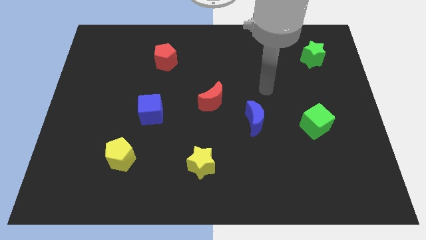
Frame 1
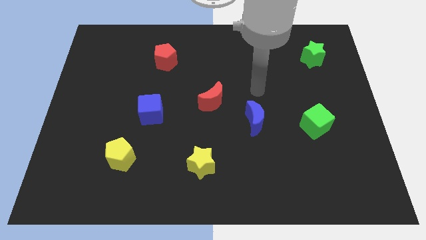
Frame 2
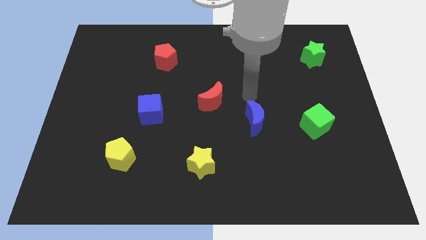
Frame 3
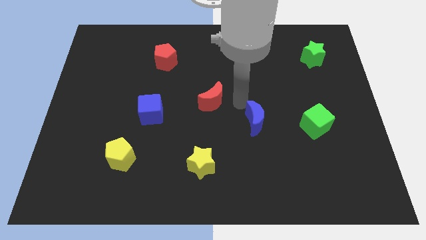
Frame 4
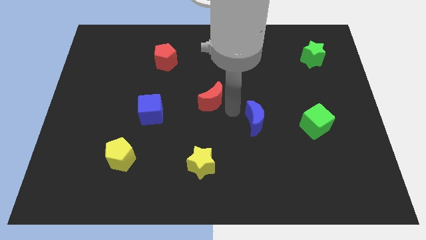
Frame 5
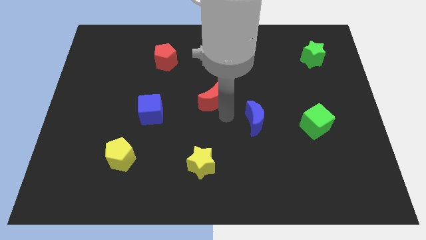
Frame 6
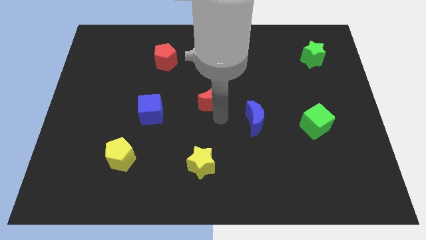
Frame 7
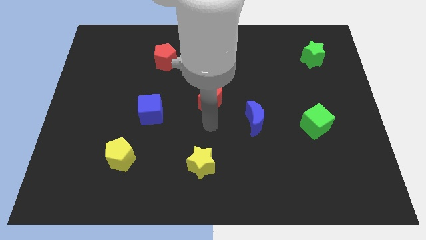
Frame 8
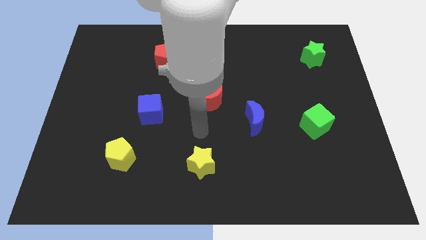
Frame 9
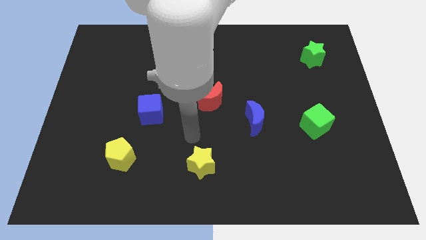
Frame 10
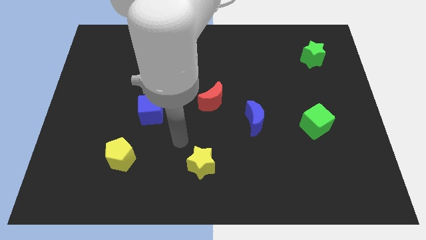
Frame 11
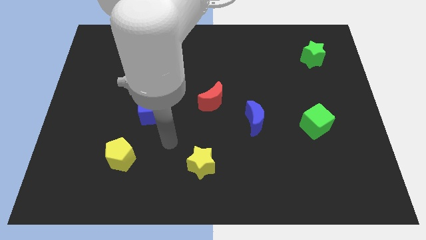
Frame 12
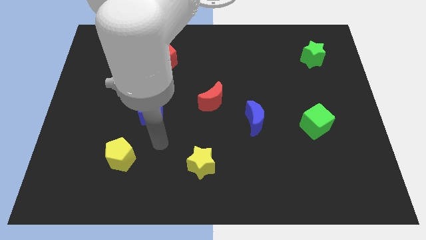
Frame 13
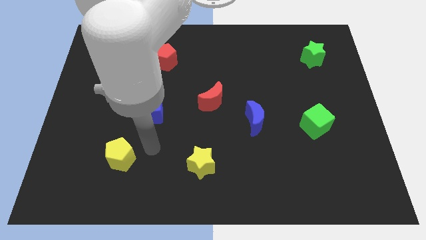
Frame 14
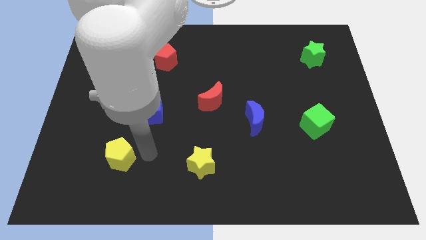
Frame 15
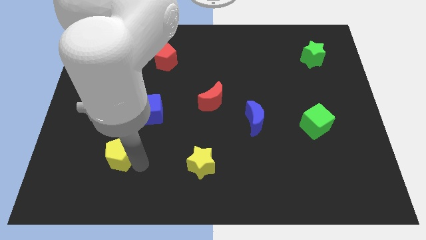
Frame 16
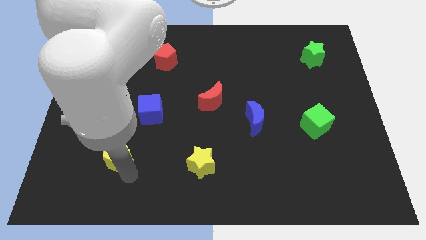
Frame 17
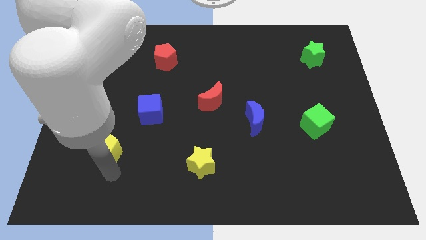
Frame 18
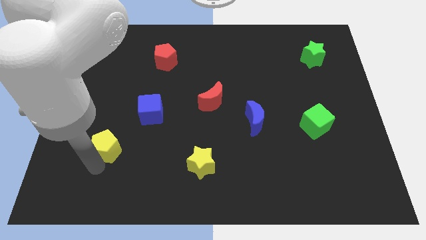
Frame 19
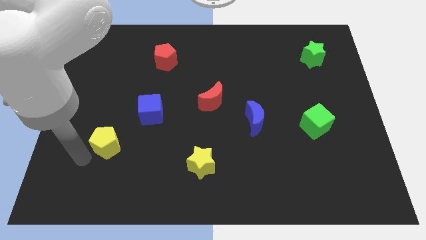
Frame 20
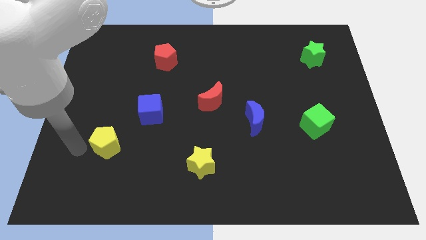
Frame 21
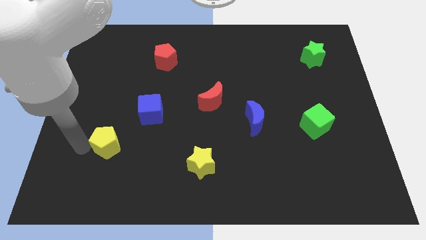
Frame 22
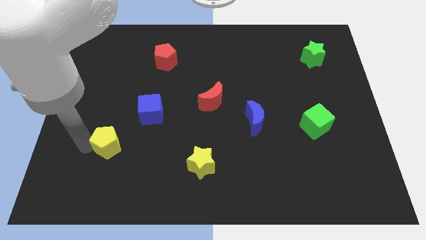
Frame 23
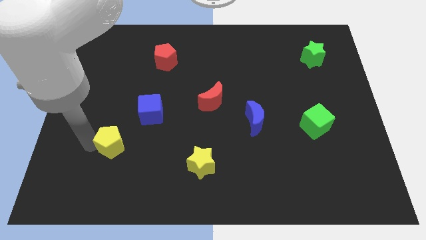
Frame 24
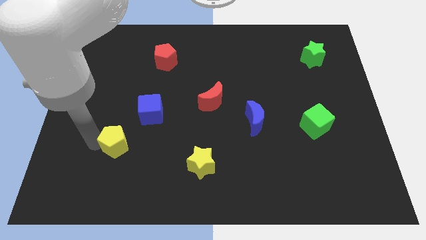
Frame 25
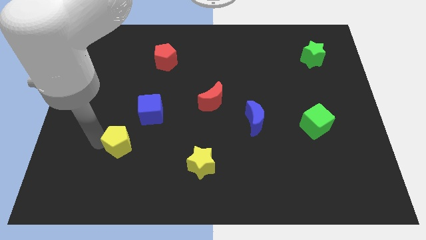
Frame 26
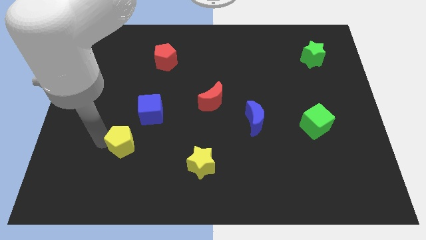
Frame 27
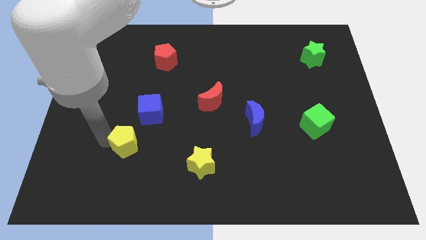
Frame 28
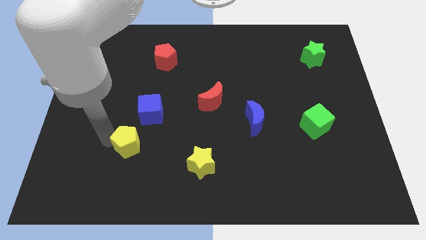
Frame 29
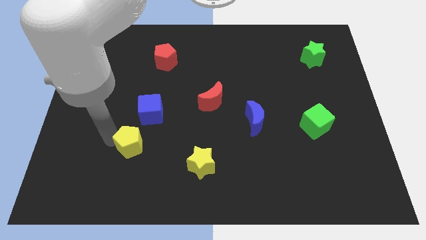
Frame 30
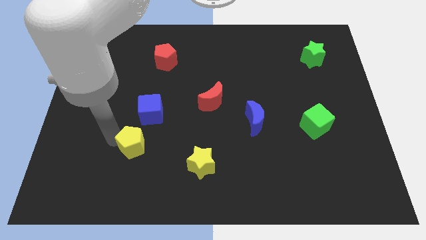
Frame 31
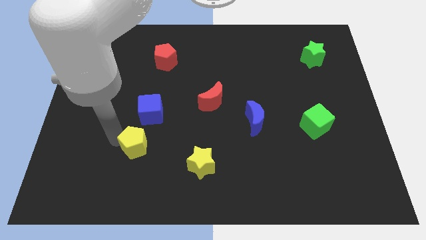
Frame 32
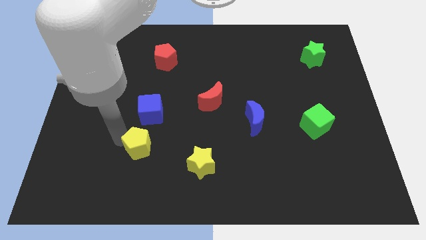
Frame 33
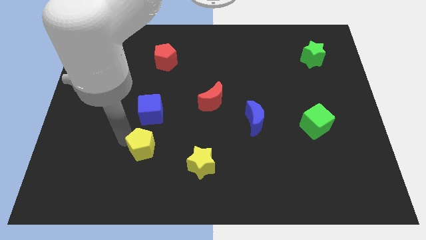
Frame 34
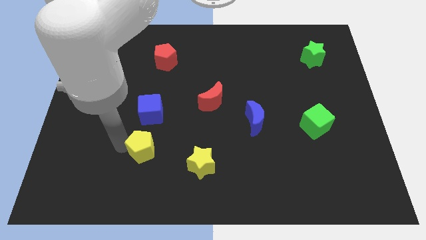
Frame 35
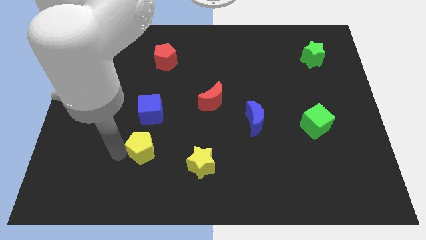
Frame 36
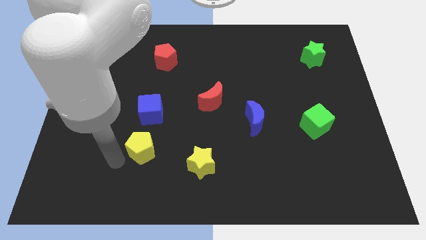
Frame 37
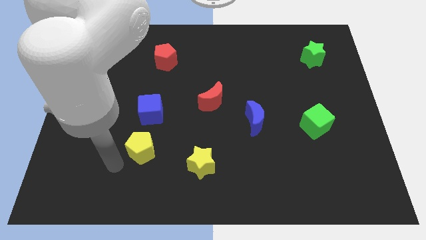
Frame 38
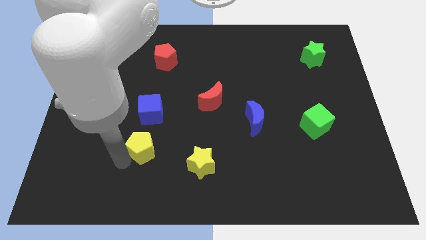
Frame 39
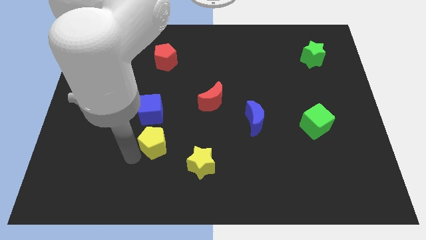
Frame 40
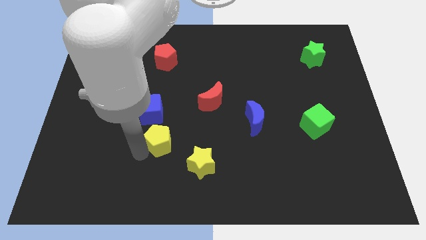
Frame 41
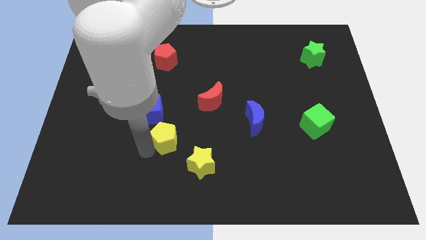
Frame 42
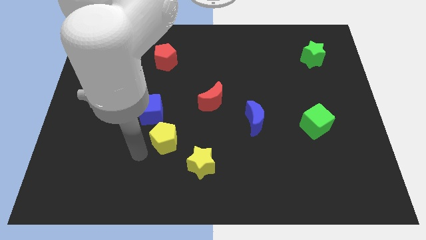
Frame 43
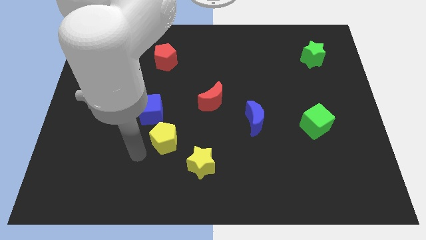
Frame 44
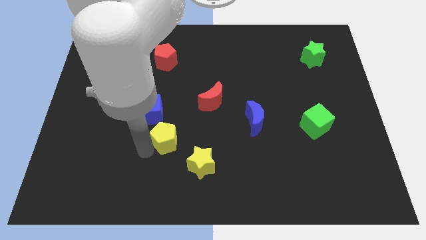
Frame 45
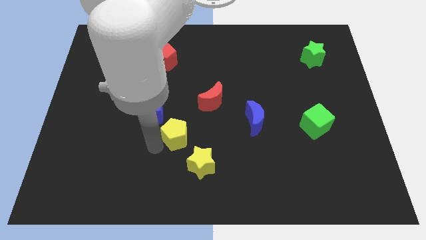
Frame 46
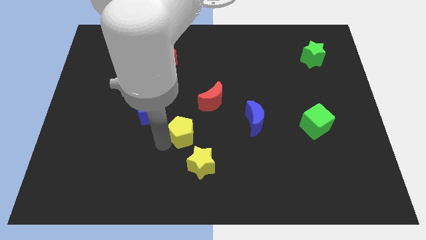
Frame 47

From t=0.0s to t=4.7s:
move the yellow pentagon above the yellow star

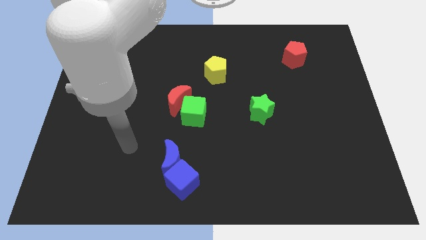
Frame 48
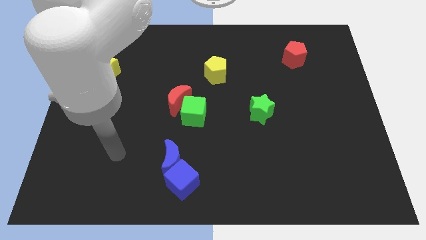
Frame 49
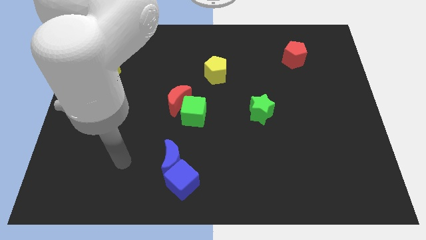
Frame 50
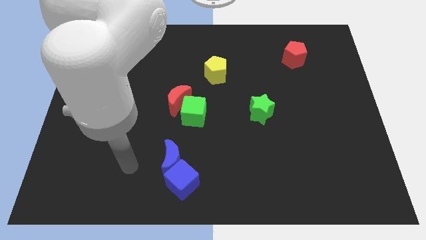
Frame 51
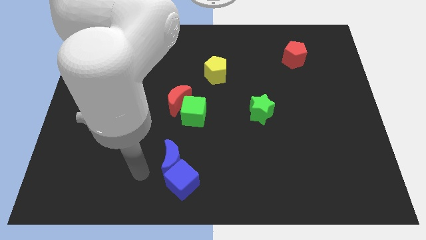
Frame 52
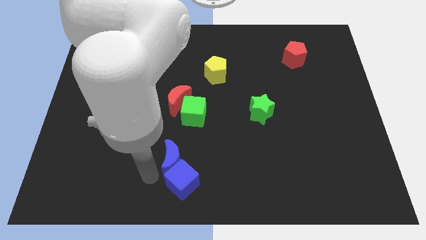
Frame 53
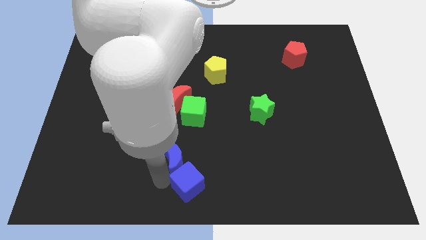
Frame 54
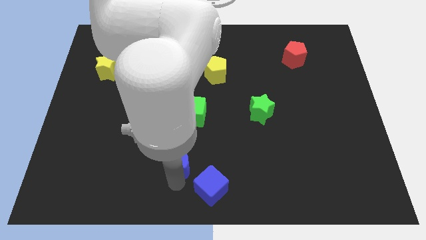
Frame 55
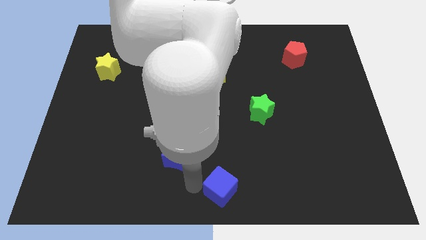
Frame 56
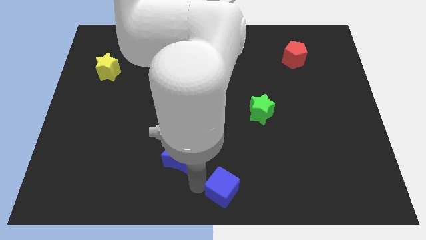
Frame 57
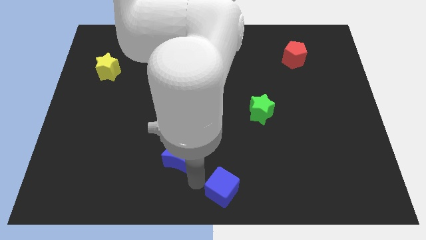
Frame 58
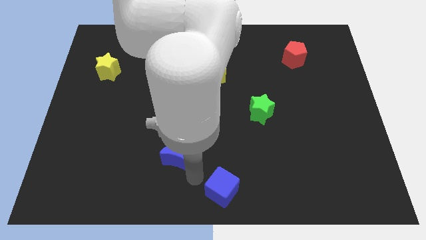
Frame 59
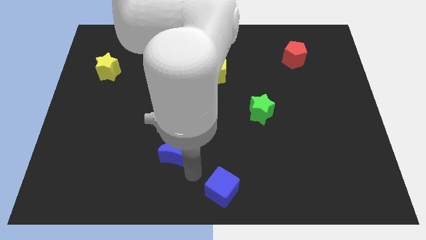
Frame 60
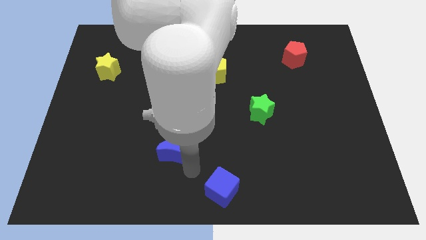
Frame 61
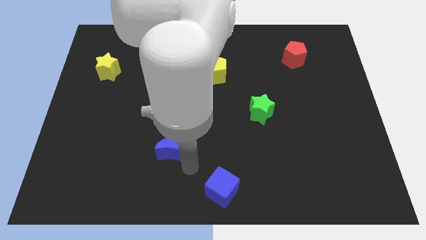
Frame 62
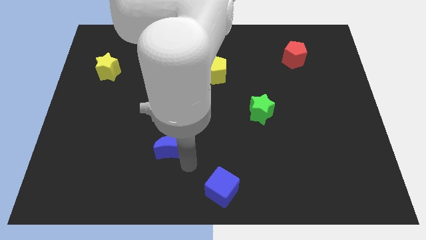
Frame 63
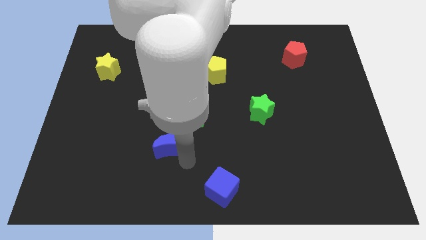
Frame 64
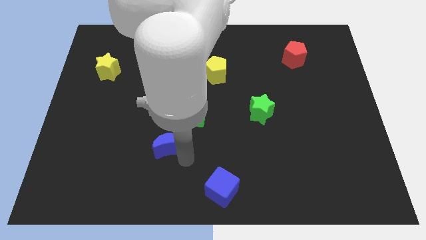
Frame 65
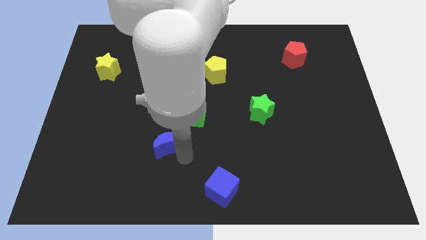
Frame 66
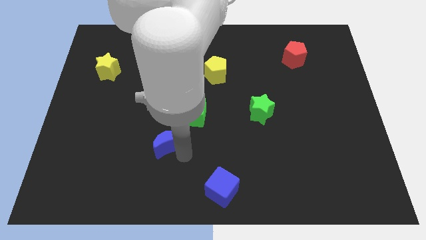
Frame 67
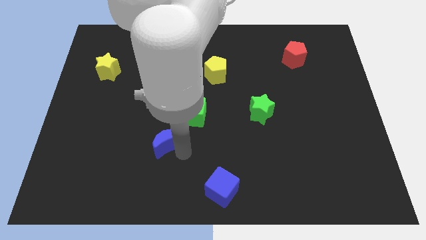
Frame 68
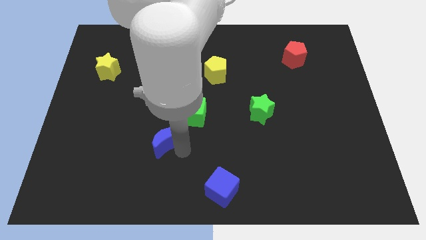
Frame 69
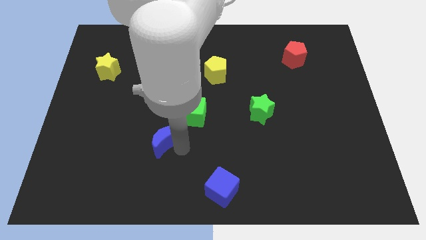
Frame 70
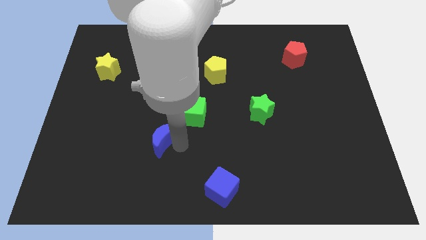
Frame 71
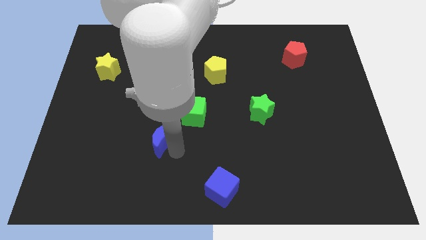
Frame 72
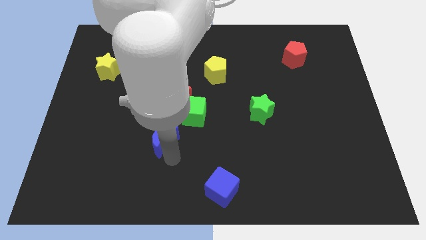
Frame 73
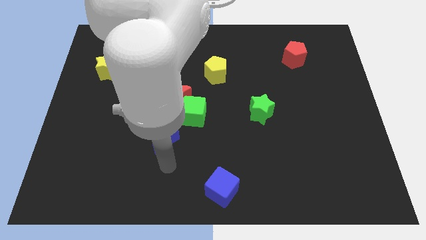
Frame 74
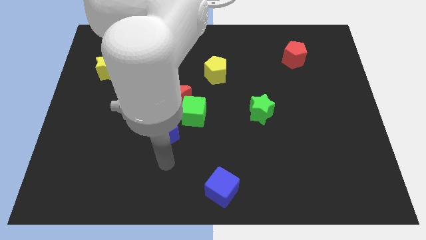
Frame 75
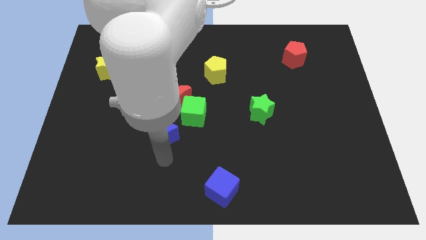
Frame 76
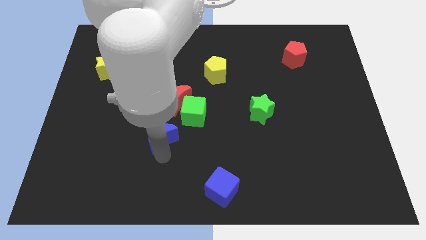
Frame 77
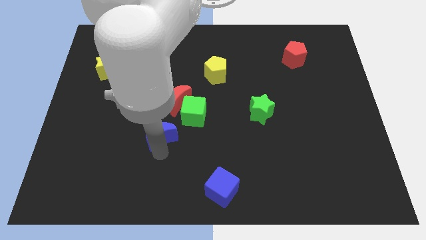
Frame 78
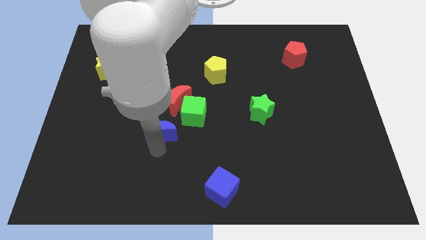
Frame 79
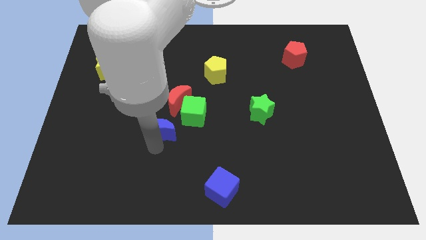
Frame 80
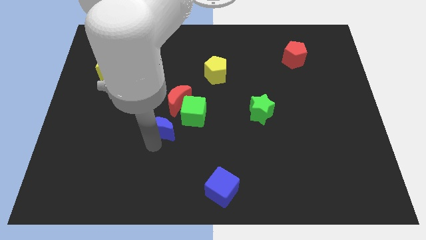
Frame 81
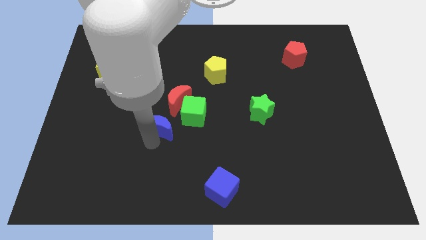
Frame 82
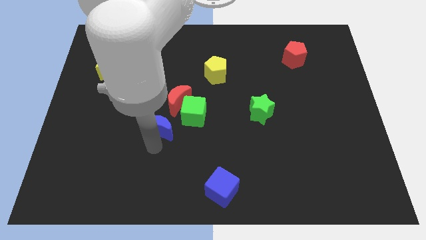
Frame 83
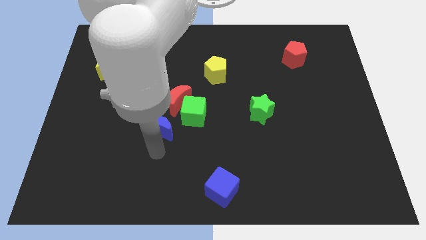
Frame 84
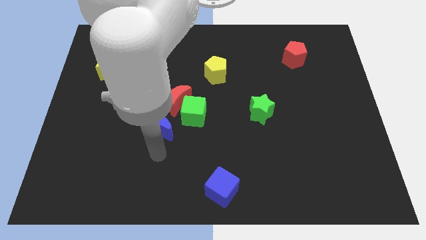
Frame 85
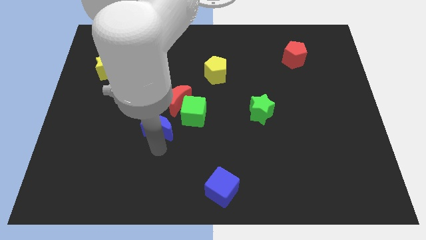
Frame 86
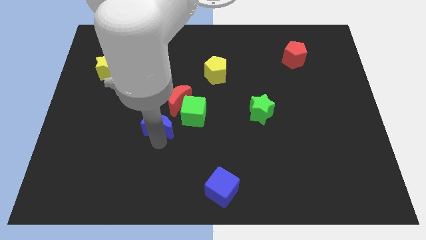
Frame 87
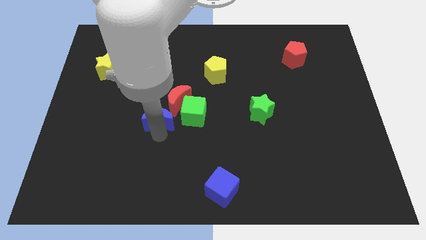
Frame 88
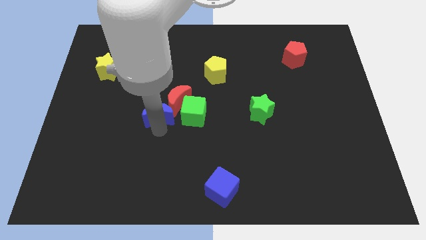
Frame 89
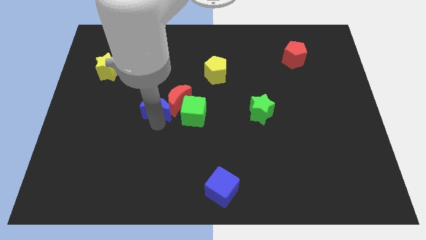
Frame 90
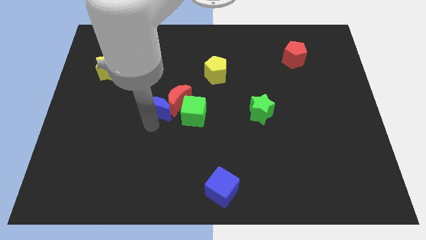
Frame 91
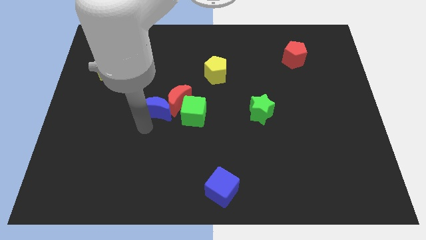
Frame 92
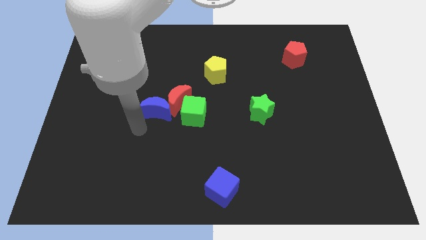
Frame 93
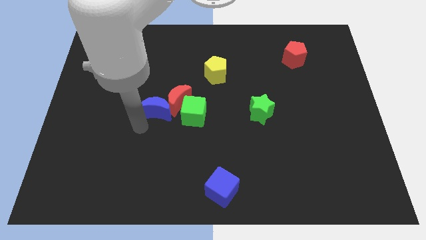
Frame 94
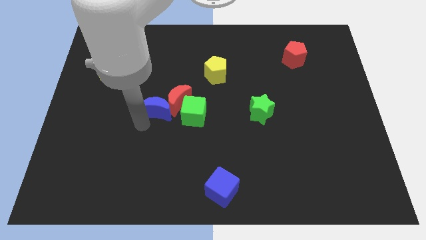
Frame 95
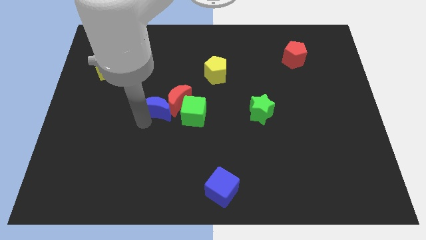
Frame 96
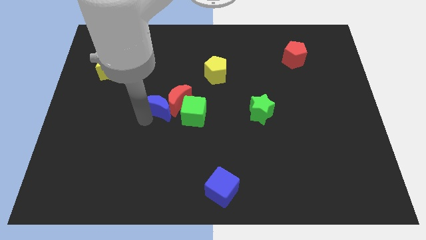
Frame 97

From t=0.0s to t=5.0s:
move the blue moon to the top left side of the green cube
